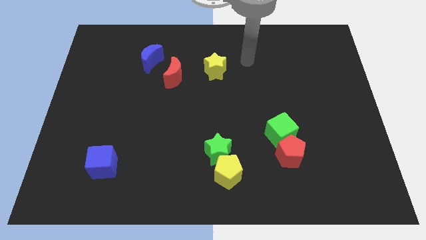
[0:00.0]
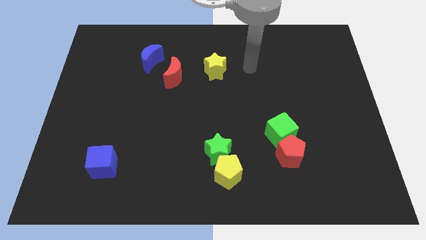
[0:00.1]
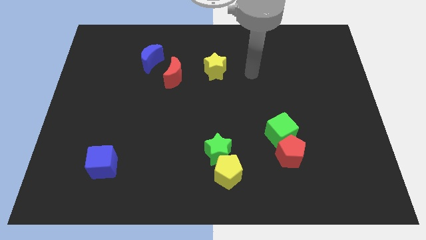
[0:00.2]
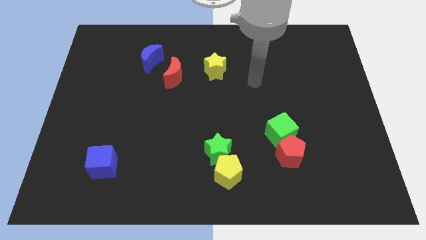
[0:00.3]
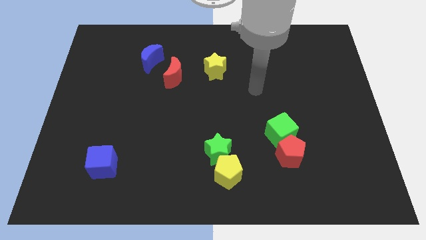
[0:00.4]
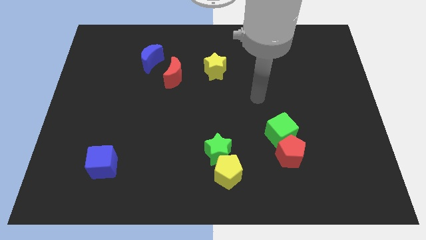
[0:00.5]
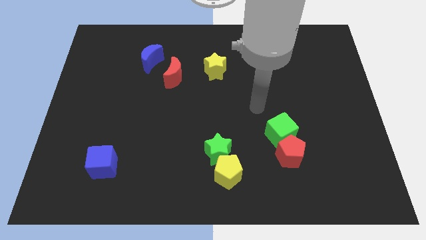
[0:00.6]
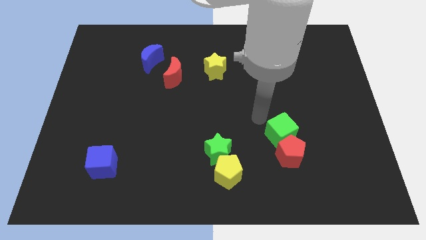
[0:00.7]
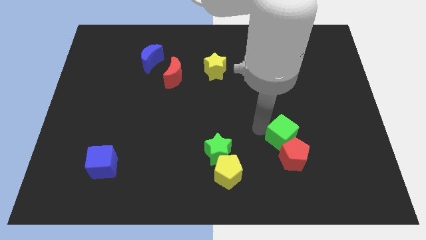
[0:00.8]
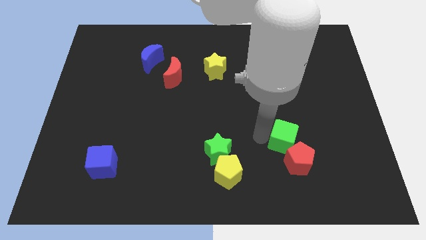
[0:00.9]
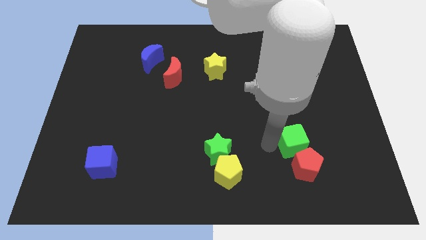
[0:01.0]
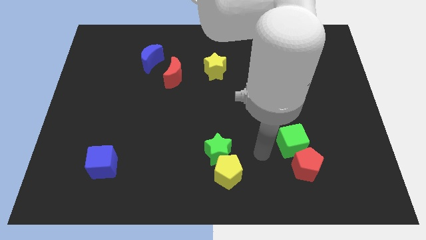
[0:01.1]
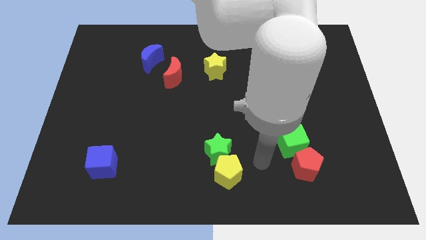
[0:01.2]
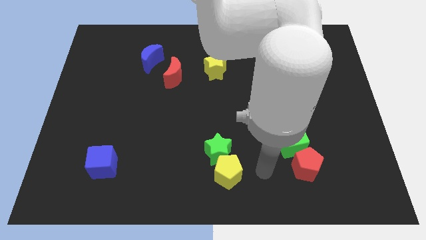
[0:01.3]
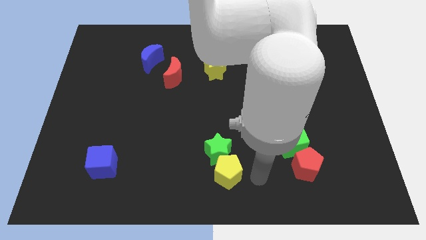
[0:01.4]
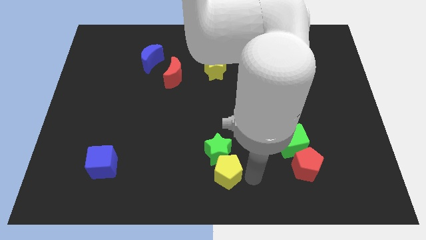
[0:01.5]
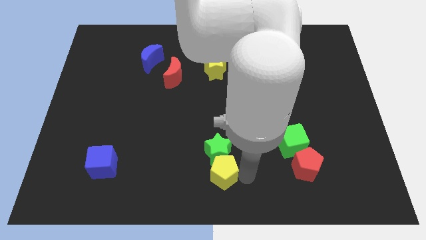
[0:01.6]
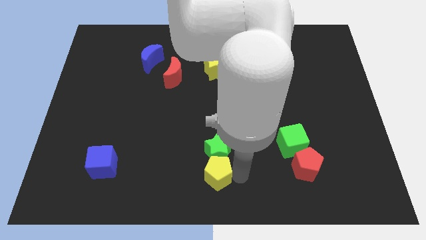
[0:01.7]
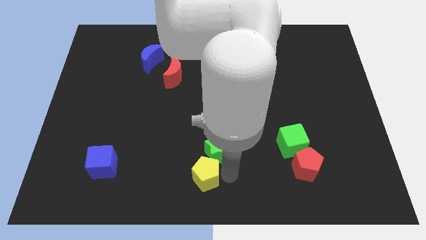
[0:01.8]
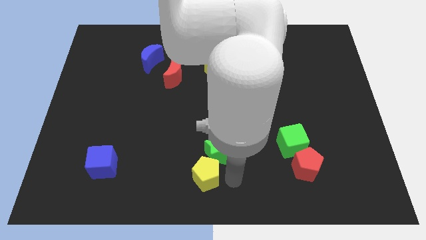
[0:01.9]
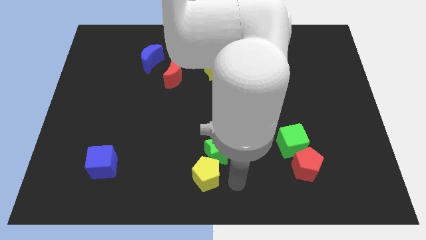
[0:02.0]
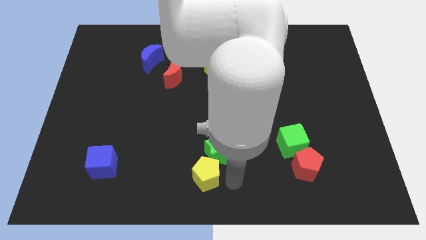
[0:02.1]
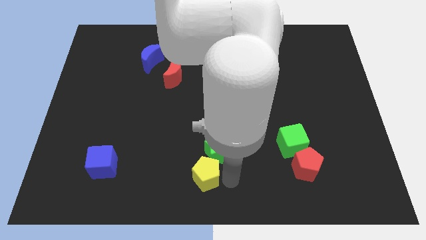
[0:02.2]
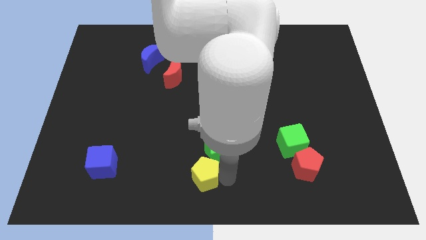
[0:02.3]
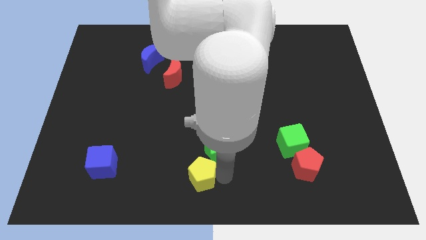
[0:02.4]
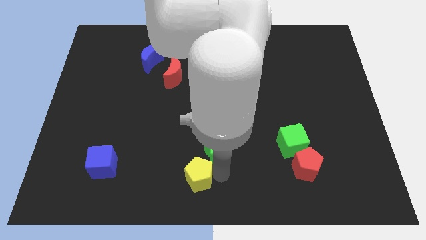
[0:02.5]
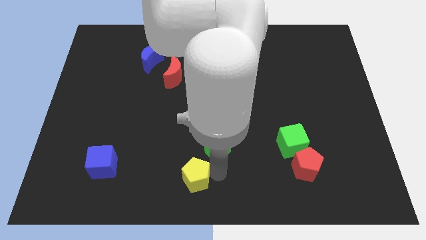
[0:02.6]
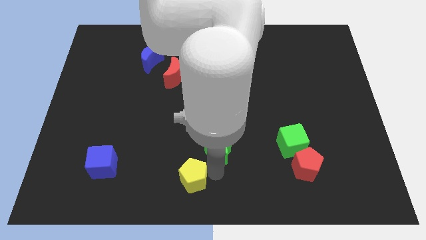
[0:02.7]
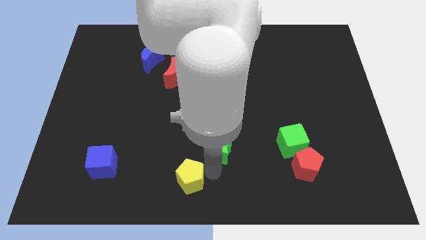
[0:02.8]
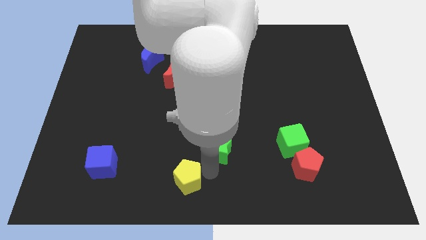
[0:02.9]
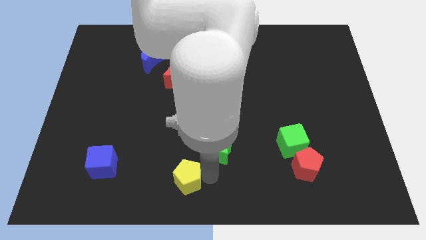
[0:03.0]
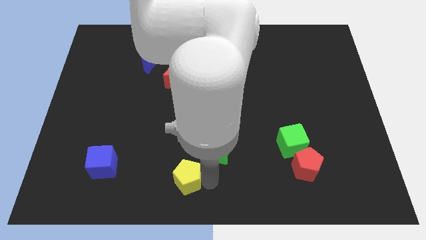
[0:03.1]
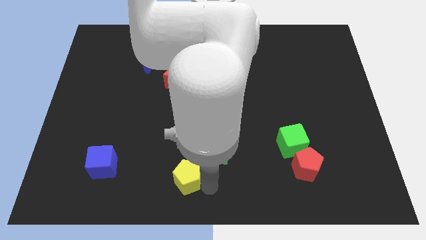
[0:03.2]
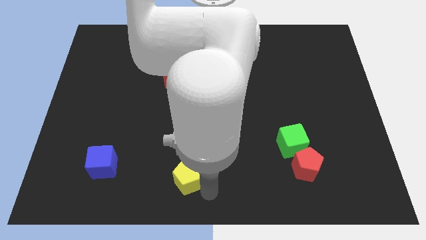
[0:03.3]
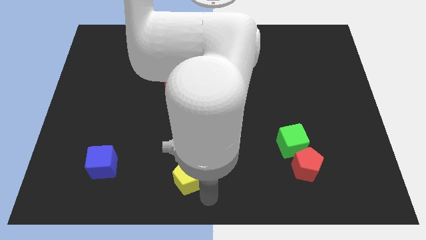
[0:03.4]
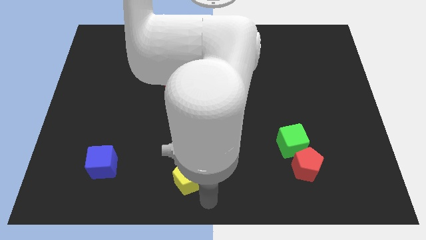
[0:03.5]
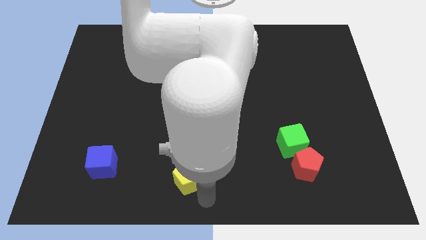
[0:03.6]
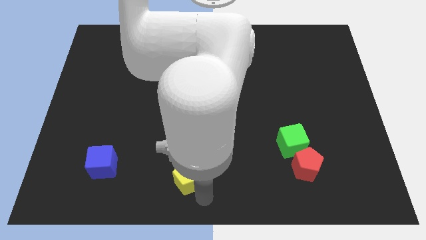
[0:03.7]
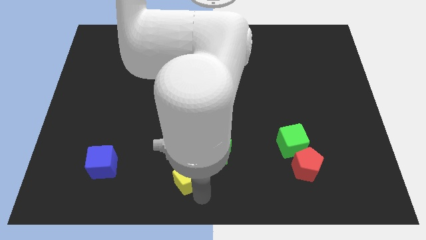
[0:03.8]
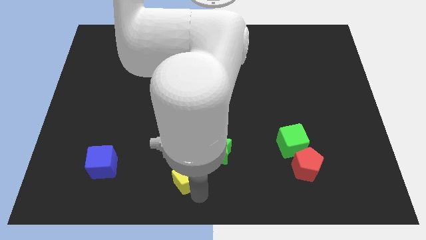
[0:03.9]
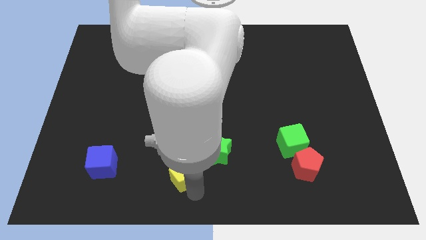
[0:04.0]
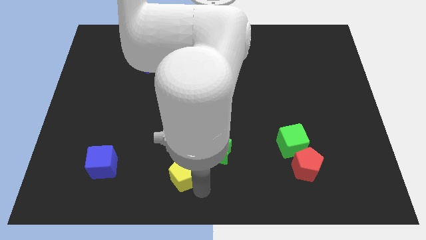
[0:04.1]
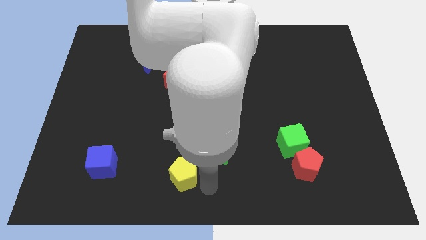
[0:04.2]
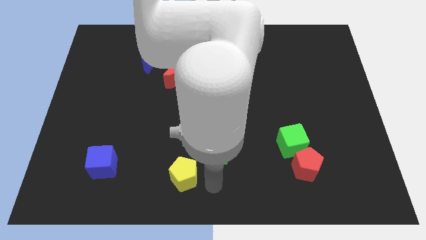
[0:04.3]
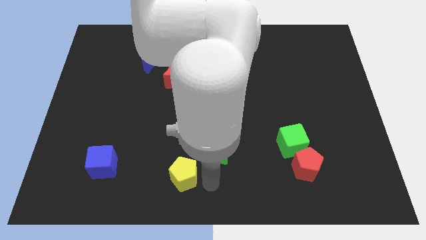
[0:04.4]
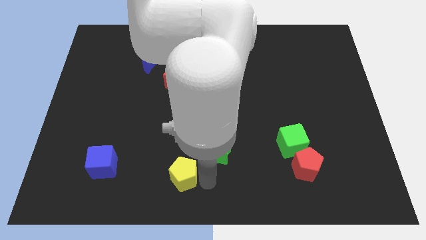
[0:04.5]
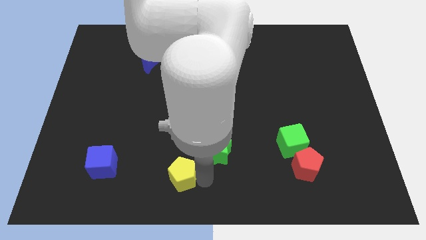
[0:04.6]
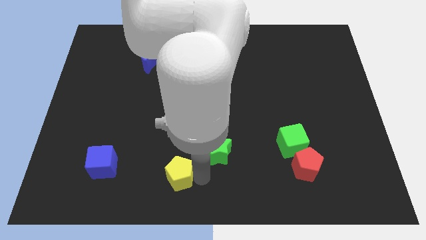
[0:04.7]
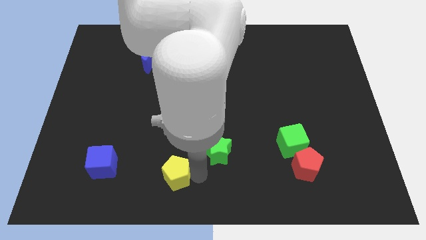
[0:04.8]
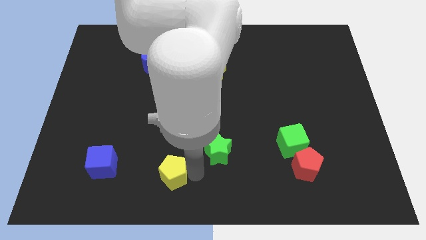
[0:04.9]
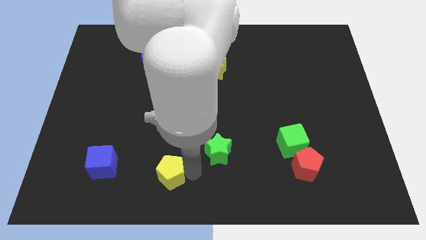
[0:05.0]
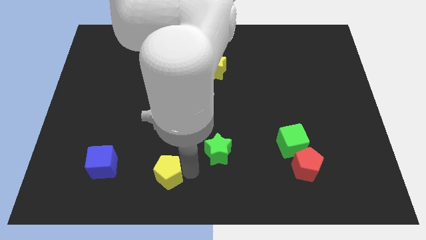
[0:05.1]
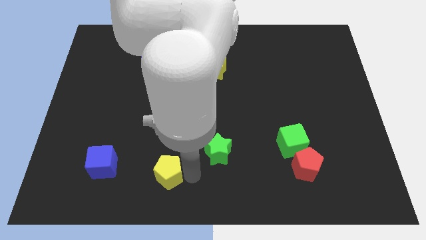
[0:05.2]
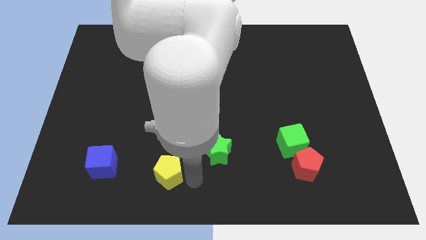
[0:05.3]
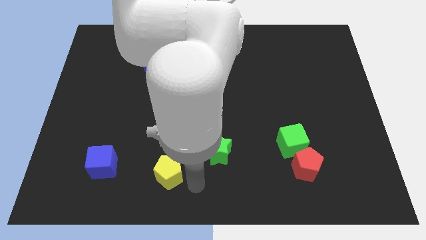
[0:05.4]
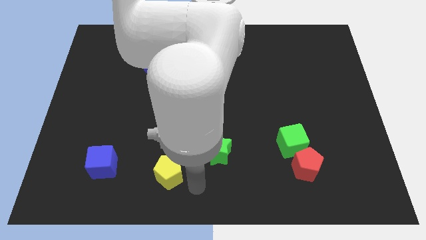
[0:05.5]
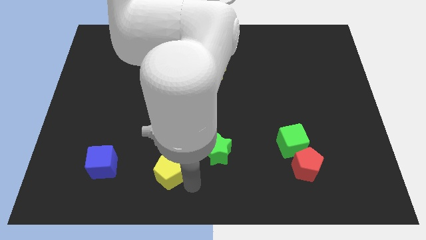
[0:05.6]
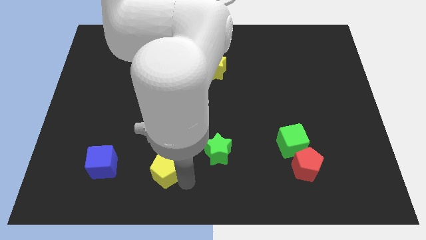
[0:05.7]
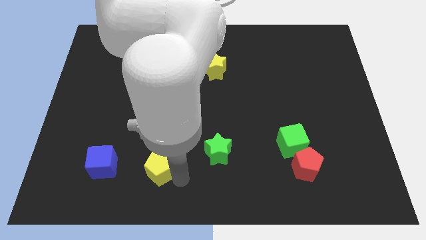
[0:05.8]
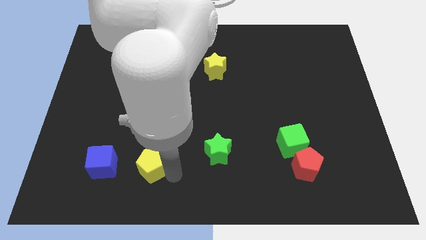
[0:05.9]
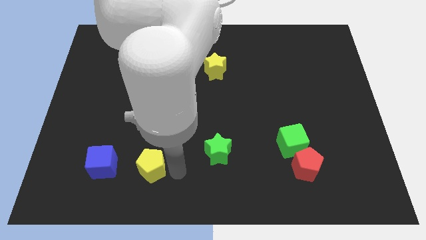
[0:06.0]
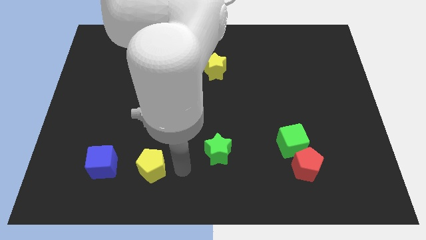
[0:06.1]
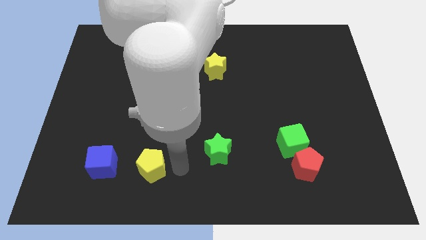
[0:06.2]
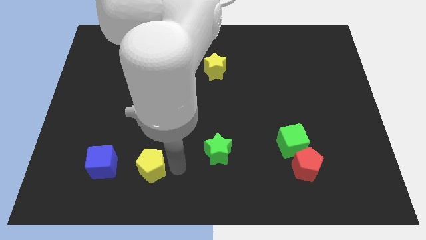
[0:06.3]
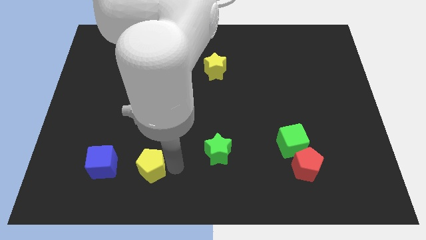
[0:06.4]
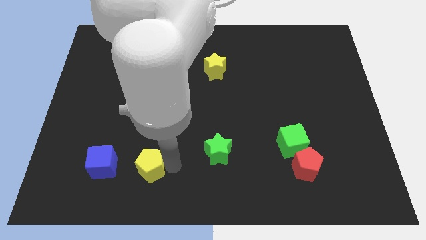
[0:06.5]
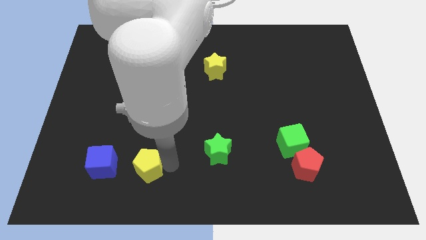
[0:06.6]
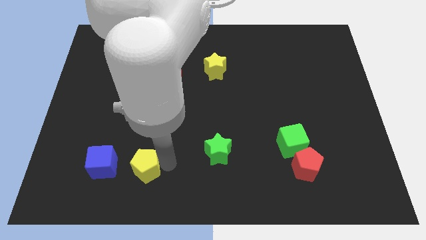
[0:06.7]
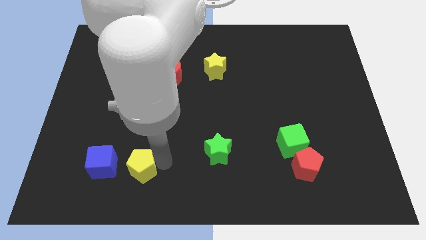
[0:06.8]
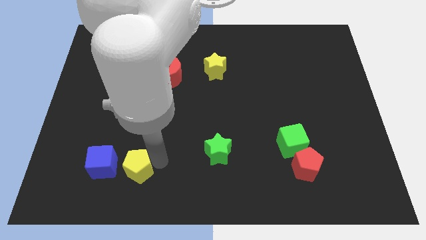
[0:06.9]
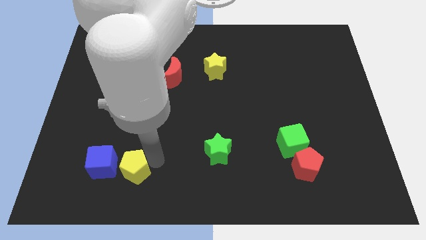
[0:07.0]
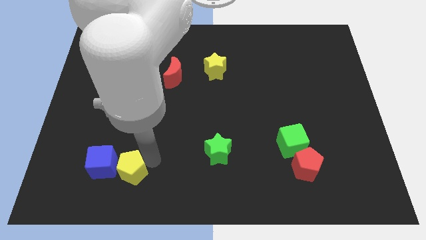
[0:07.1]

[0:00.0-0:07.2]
move the yellow pentagon towards the blue cube

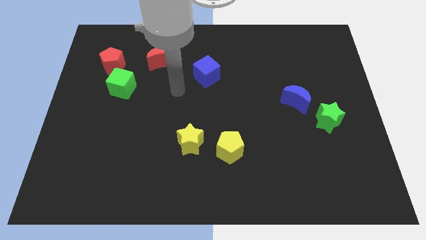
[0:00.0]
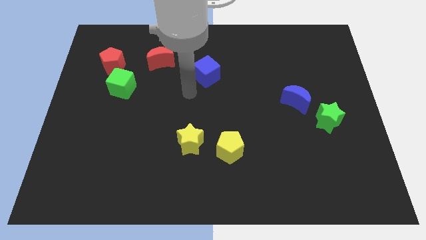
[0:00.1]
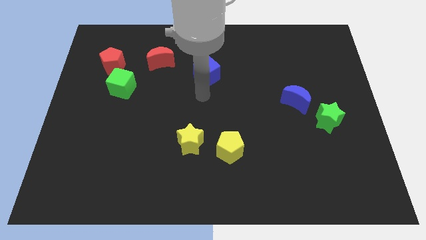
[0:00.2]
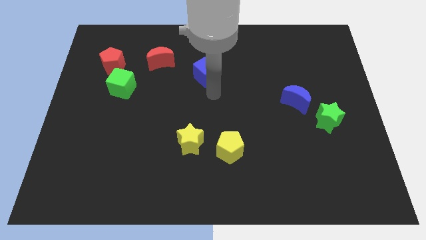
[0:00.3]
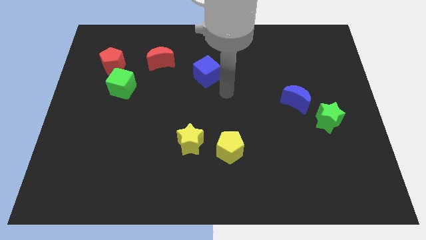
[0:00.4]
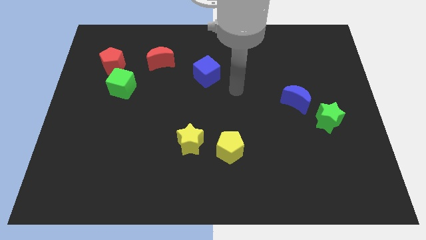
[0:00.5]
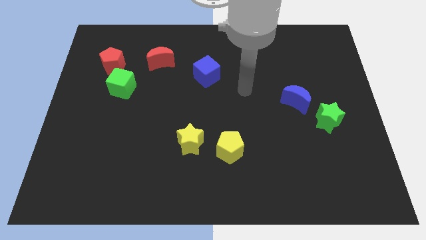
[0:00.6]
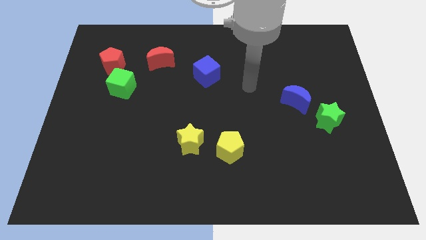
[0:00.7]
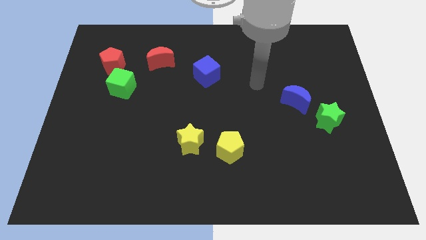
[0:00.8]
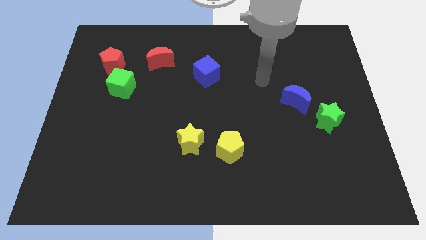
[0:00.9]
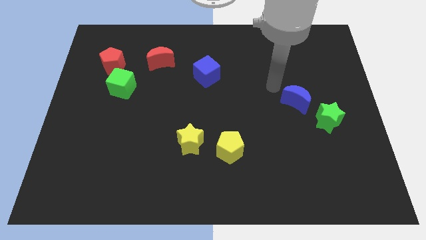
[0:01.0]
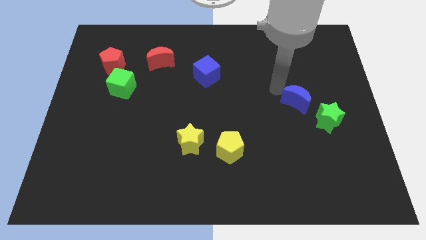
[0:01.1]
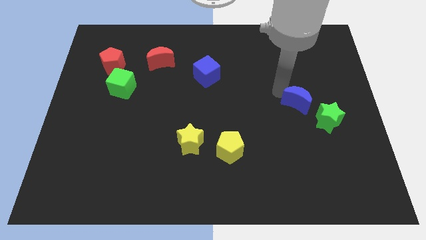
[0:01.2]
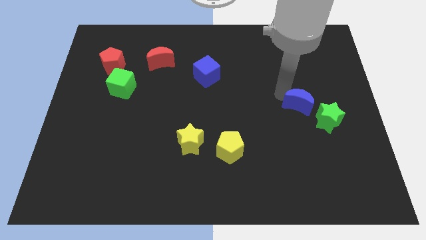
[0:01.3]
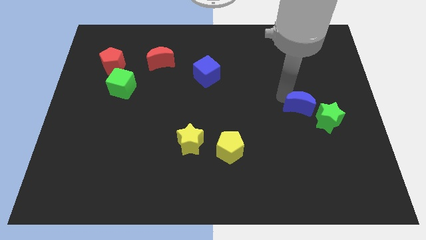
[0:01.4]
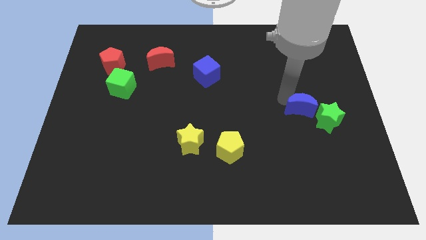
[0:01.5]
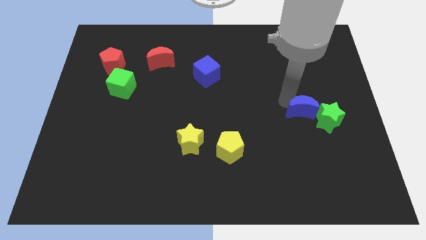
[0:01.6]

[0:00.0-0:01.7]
put the blue moon next to the green star
